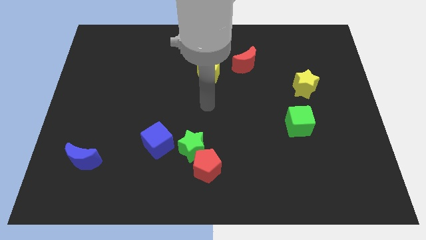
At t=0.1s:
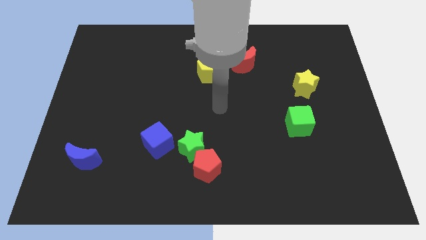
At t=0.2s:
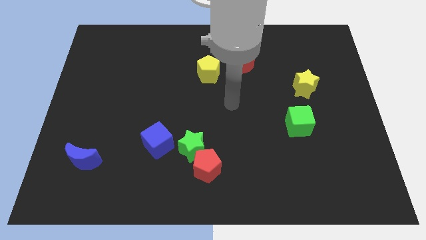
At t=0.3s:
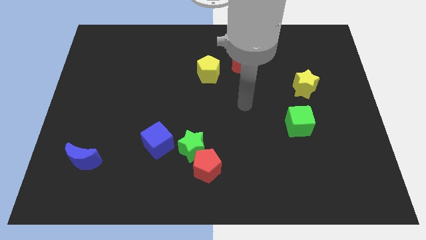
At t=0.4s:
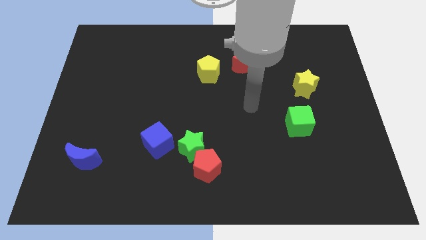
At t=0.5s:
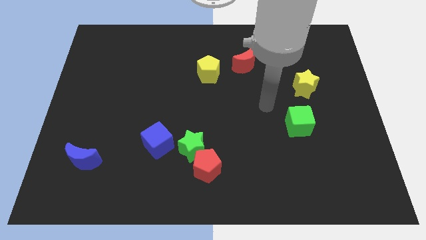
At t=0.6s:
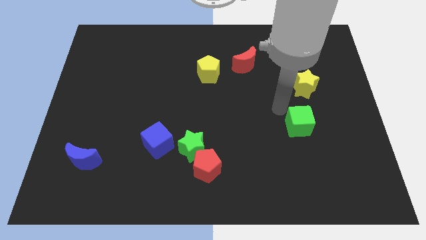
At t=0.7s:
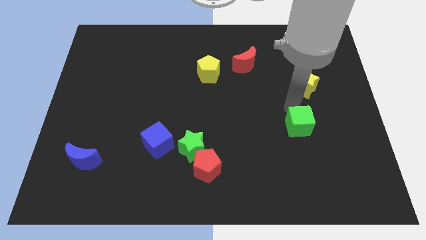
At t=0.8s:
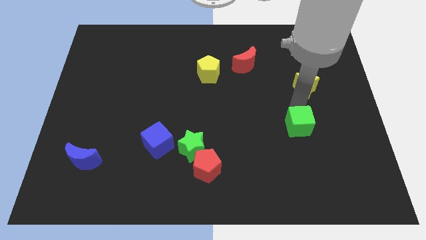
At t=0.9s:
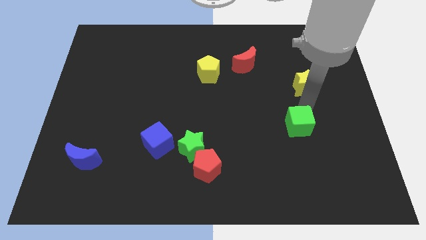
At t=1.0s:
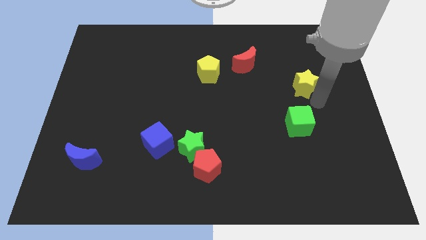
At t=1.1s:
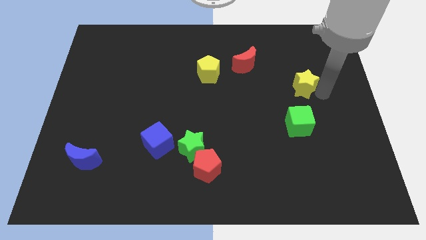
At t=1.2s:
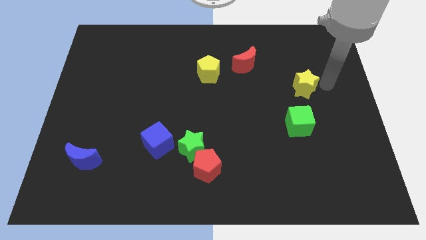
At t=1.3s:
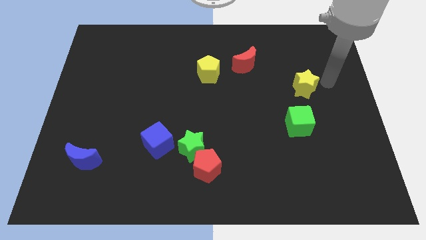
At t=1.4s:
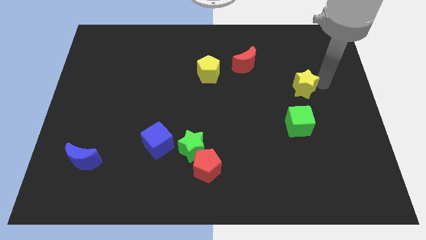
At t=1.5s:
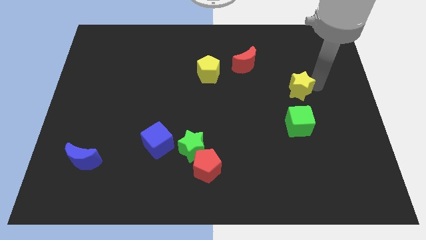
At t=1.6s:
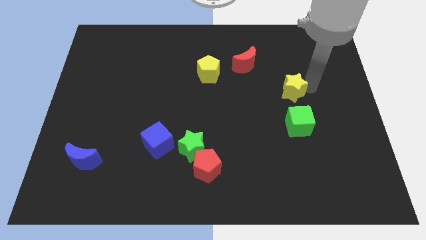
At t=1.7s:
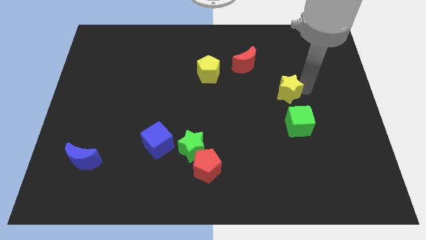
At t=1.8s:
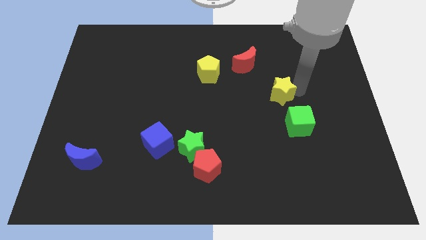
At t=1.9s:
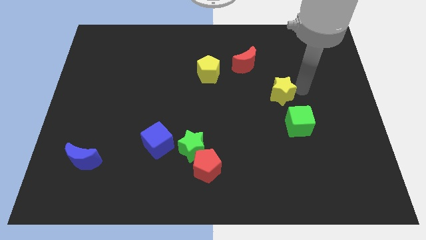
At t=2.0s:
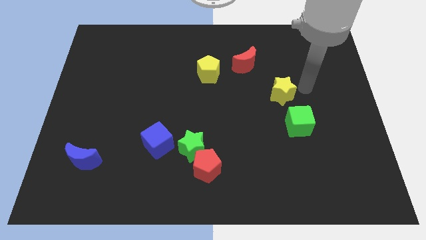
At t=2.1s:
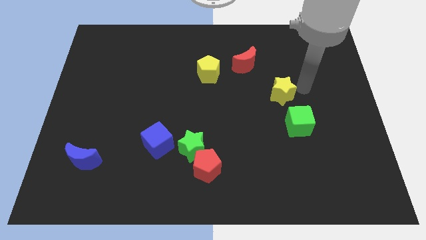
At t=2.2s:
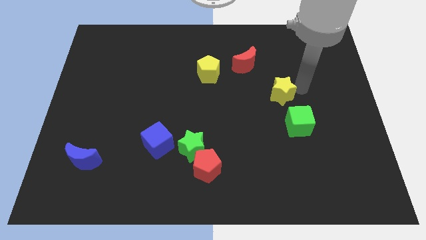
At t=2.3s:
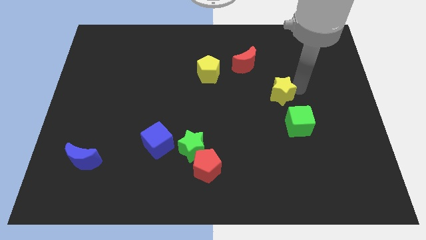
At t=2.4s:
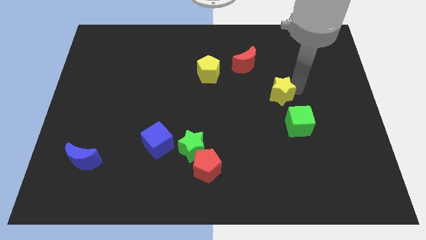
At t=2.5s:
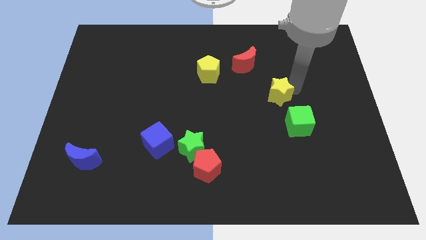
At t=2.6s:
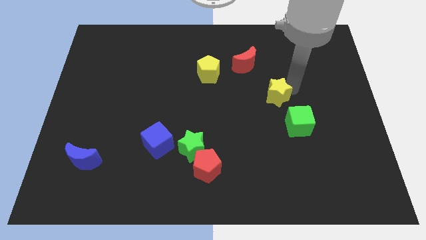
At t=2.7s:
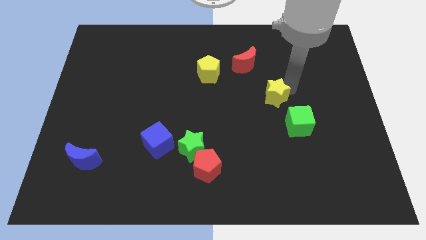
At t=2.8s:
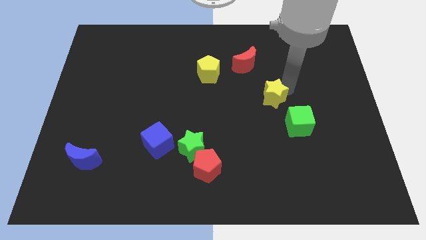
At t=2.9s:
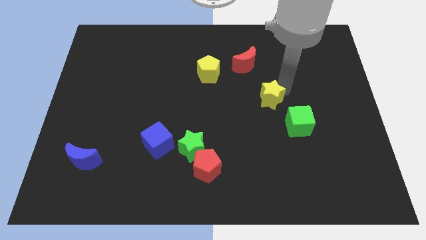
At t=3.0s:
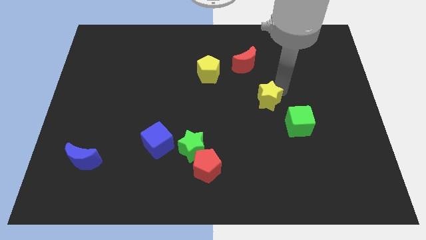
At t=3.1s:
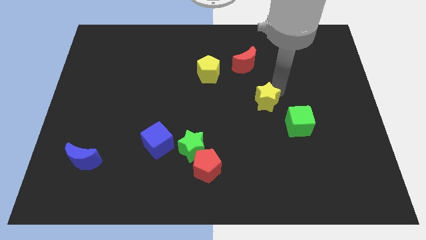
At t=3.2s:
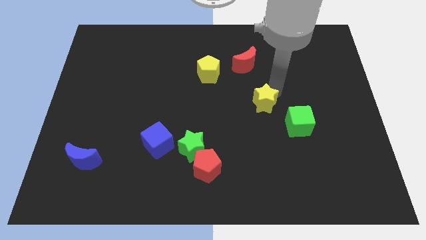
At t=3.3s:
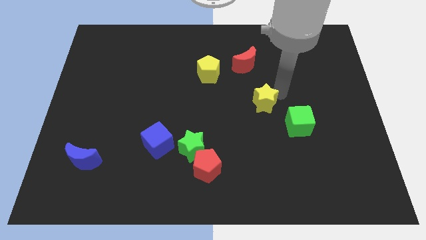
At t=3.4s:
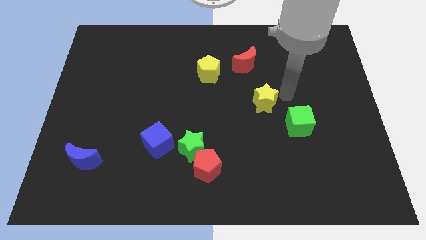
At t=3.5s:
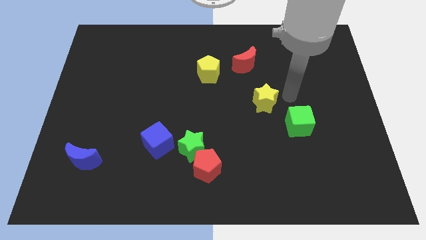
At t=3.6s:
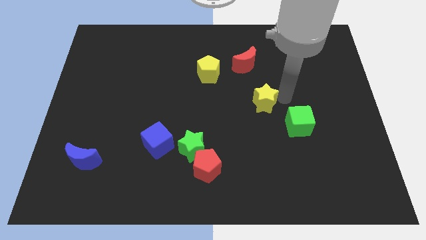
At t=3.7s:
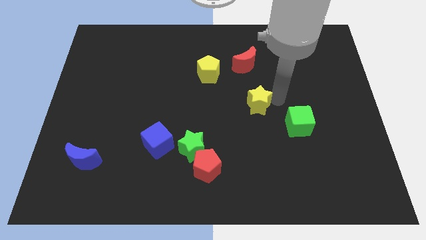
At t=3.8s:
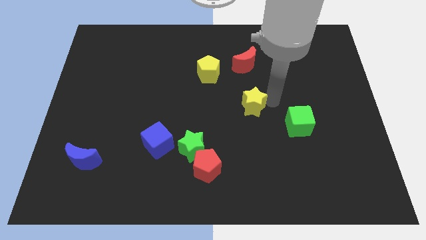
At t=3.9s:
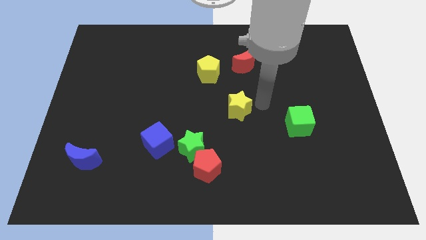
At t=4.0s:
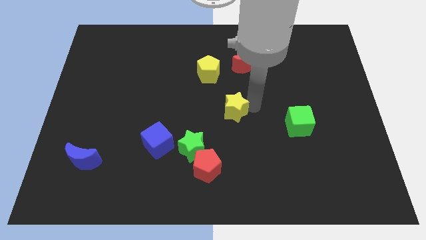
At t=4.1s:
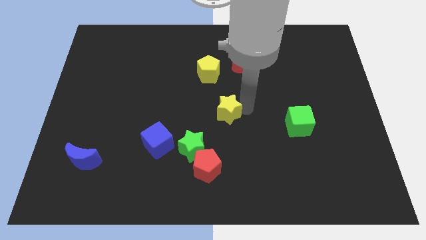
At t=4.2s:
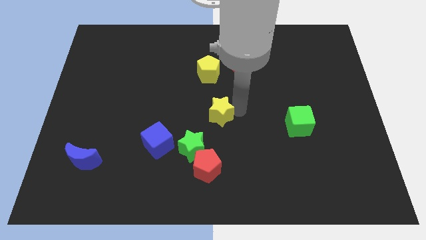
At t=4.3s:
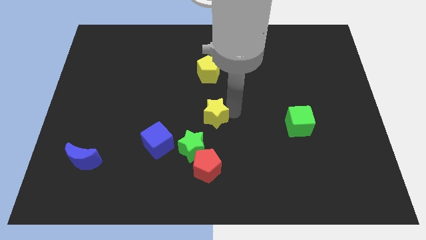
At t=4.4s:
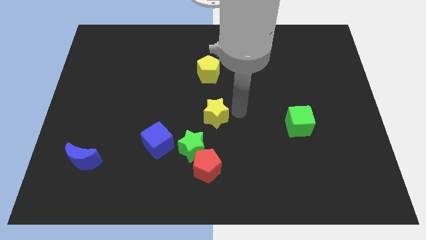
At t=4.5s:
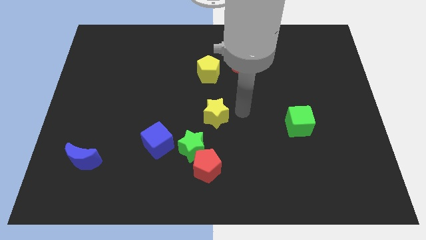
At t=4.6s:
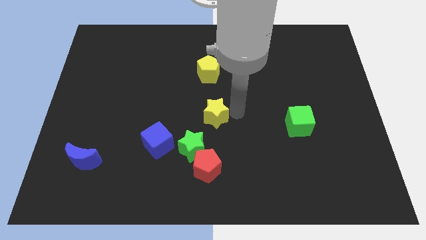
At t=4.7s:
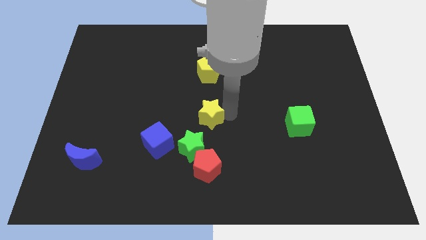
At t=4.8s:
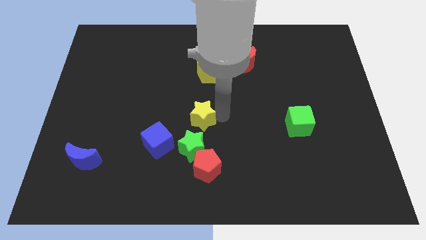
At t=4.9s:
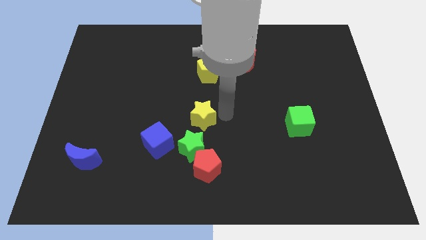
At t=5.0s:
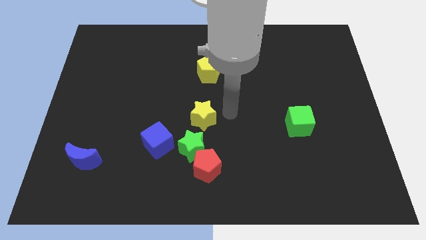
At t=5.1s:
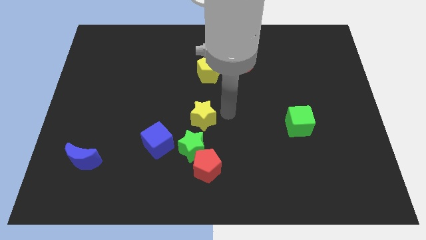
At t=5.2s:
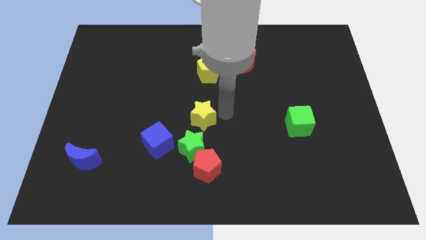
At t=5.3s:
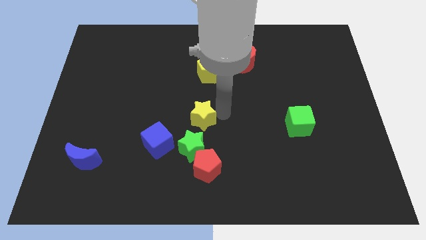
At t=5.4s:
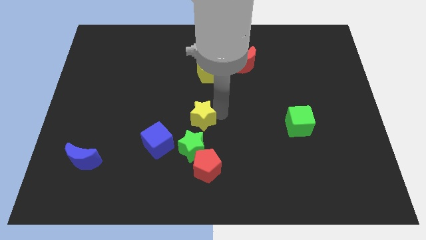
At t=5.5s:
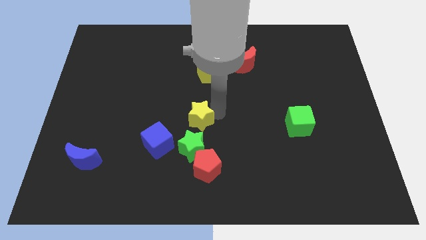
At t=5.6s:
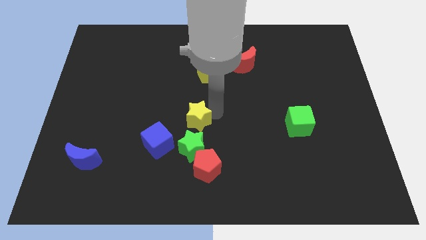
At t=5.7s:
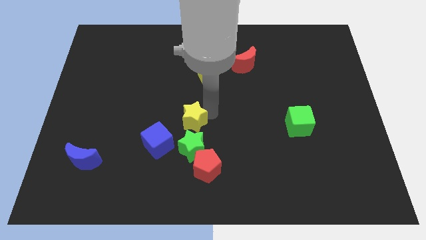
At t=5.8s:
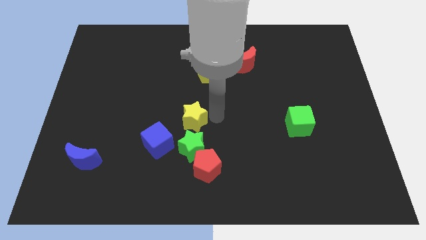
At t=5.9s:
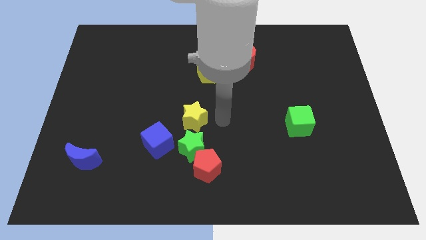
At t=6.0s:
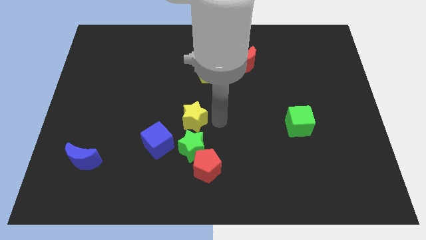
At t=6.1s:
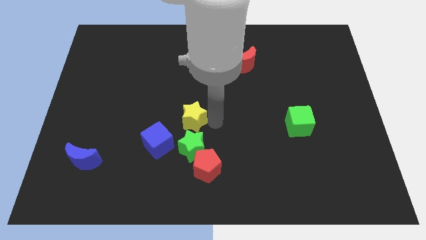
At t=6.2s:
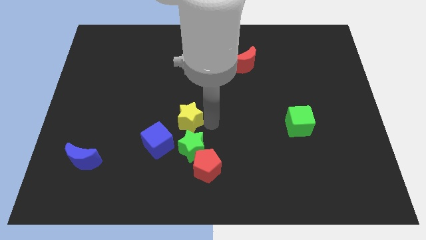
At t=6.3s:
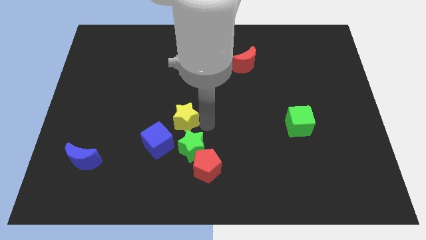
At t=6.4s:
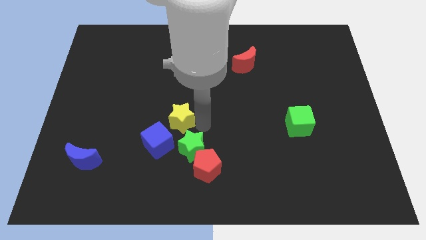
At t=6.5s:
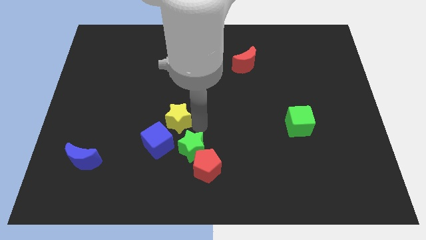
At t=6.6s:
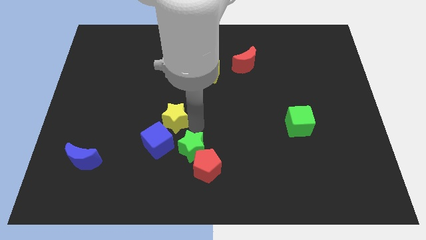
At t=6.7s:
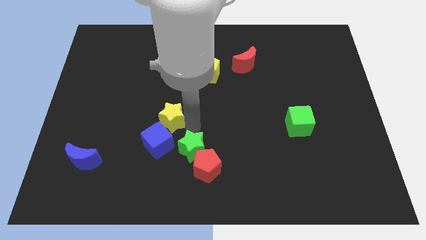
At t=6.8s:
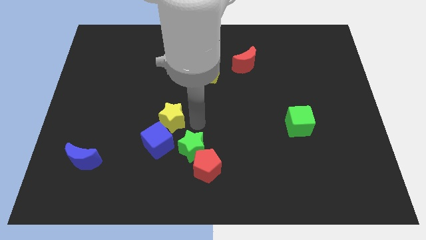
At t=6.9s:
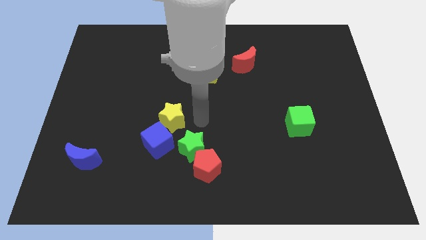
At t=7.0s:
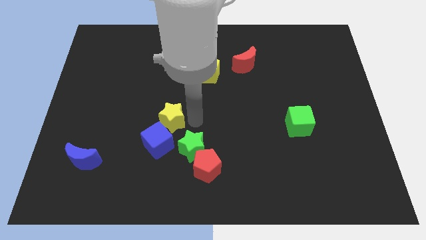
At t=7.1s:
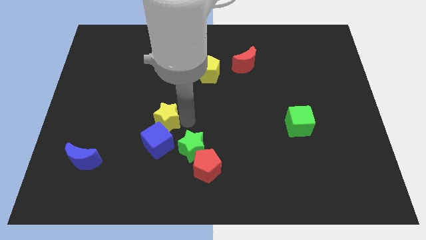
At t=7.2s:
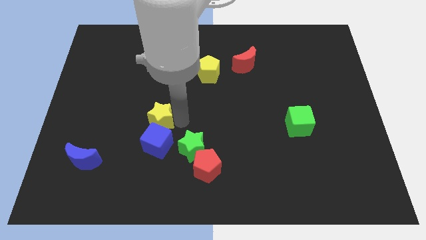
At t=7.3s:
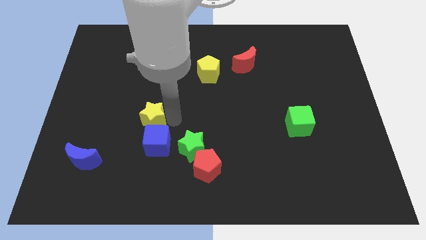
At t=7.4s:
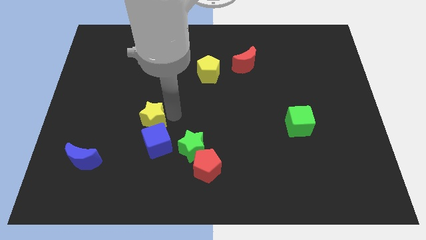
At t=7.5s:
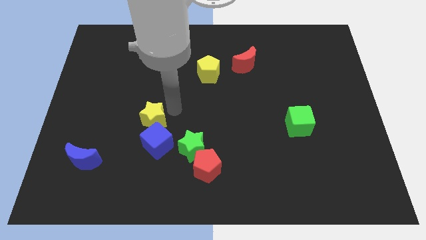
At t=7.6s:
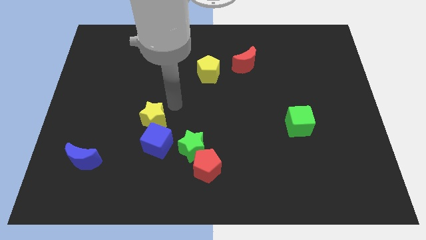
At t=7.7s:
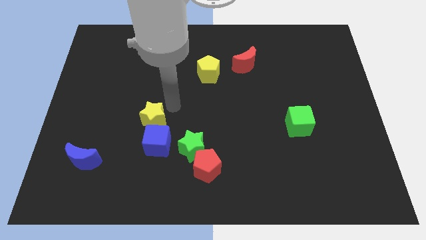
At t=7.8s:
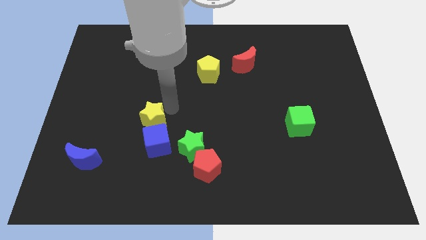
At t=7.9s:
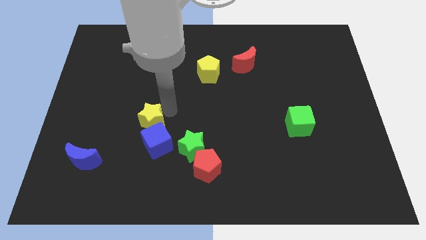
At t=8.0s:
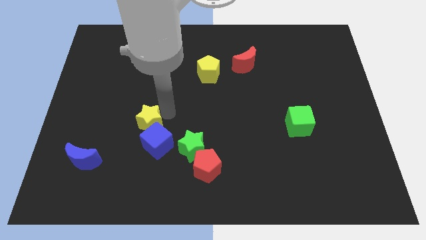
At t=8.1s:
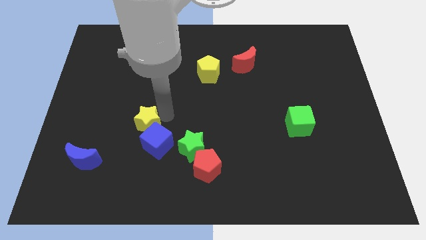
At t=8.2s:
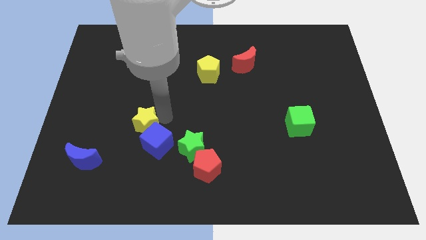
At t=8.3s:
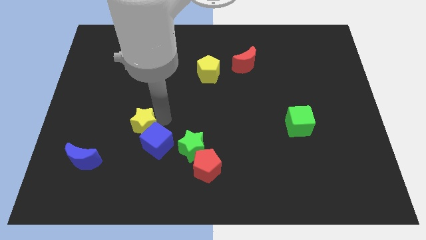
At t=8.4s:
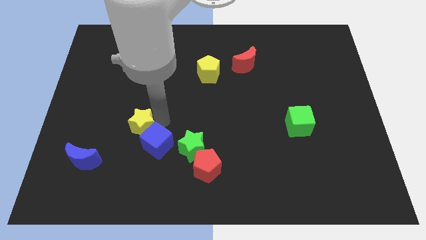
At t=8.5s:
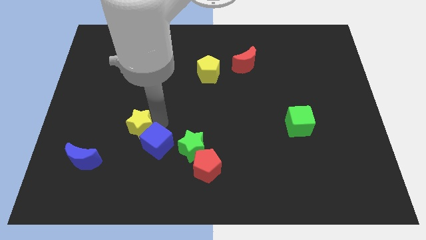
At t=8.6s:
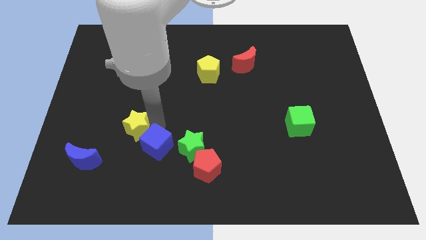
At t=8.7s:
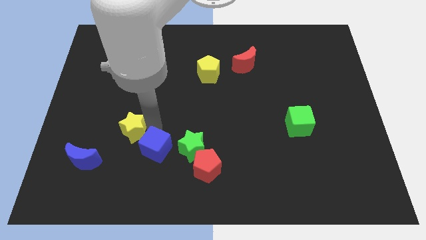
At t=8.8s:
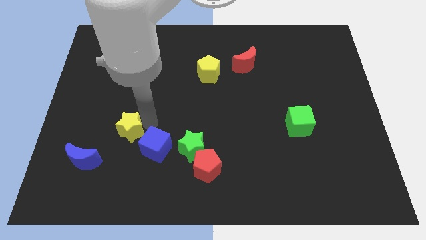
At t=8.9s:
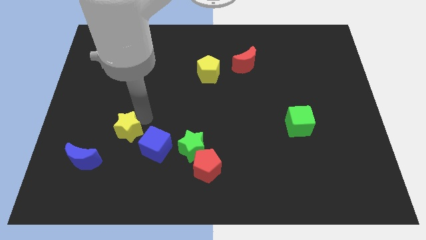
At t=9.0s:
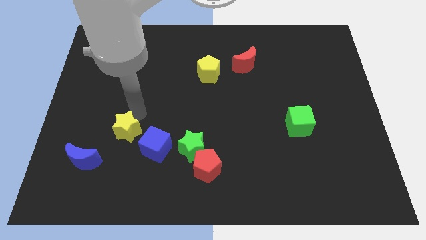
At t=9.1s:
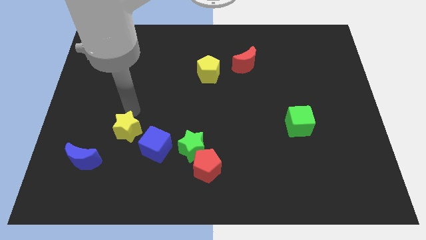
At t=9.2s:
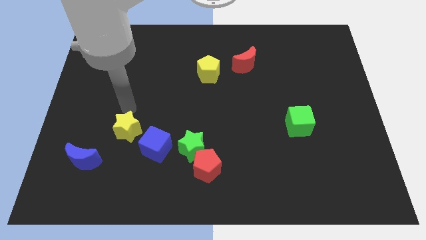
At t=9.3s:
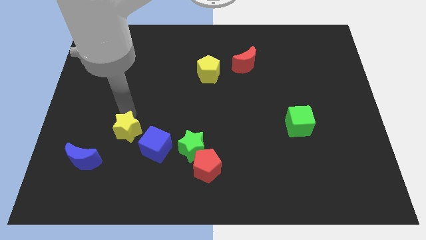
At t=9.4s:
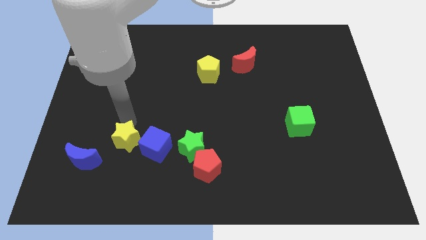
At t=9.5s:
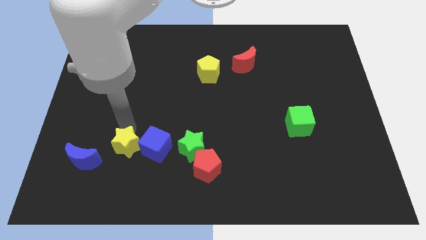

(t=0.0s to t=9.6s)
move the yellow star diagonally down and to the left of the blue cube
